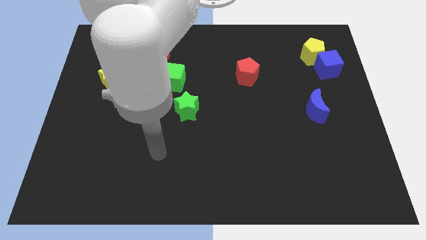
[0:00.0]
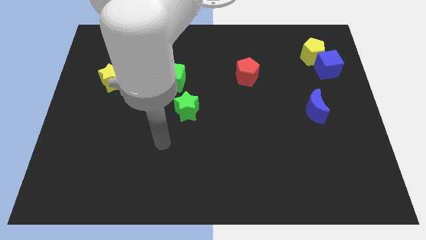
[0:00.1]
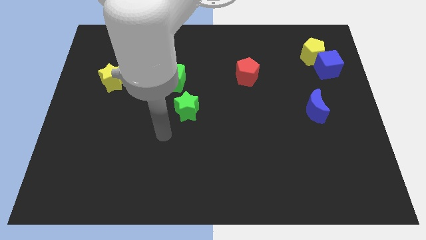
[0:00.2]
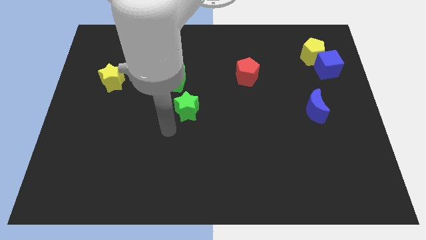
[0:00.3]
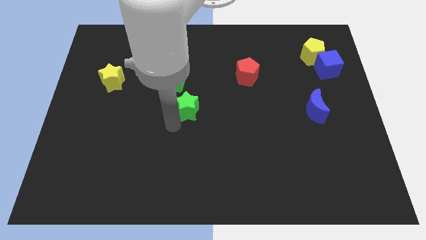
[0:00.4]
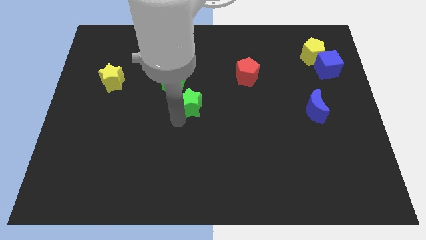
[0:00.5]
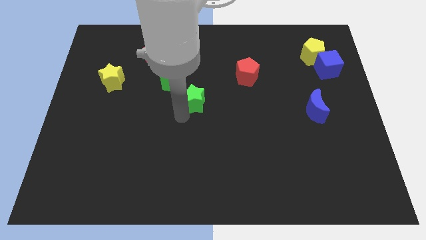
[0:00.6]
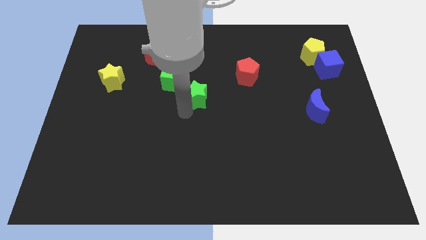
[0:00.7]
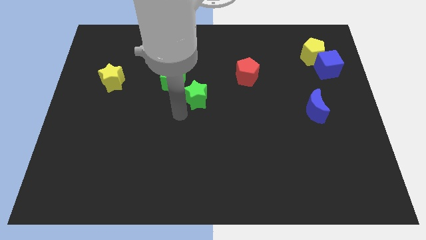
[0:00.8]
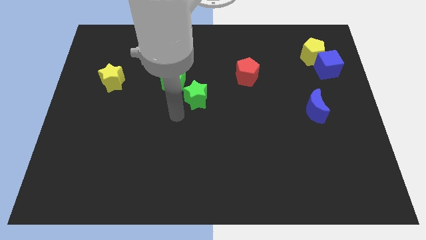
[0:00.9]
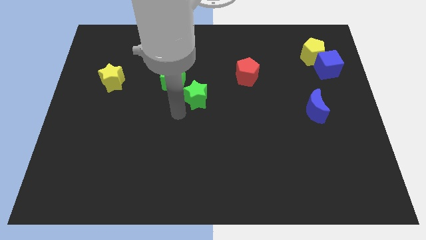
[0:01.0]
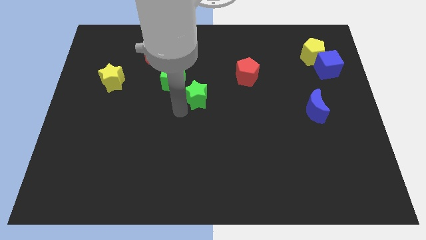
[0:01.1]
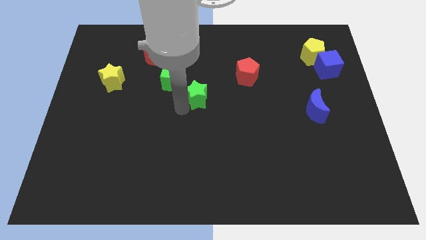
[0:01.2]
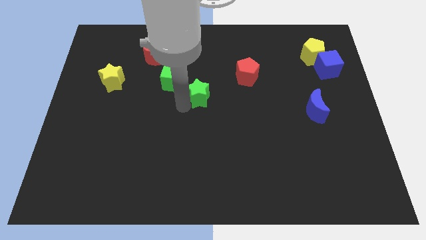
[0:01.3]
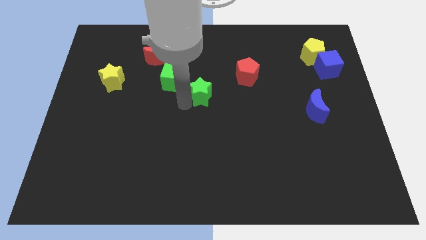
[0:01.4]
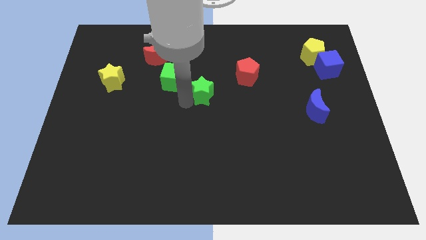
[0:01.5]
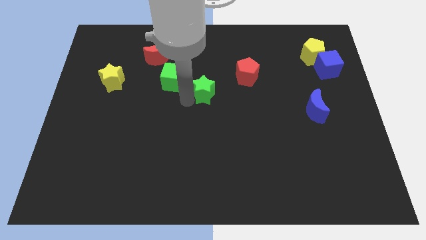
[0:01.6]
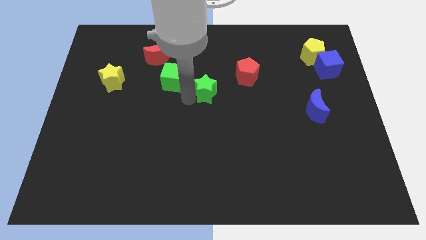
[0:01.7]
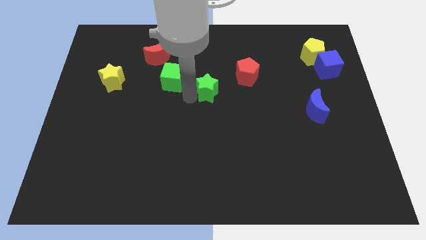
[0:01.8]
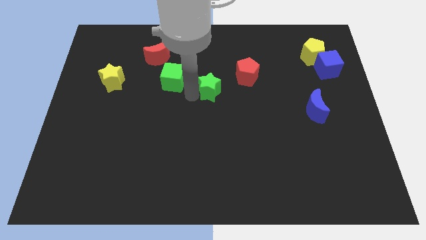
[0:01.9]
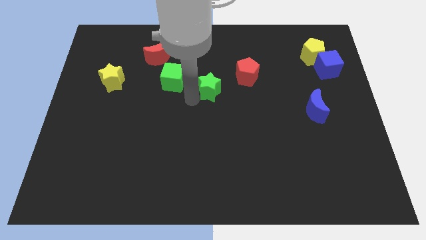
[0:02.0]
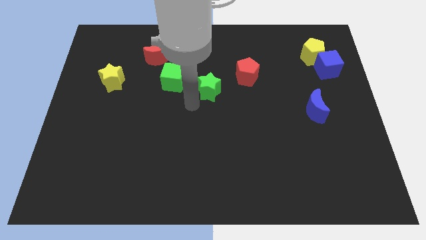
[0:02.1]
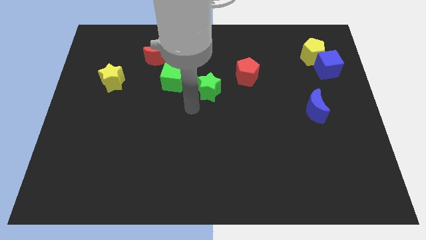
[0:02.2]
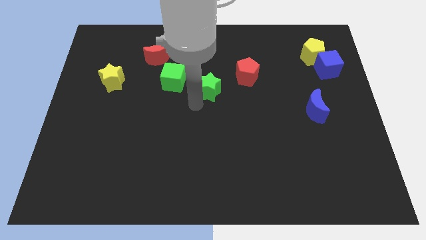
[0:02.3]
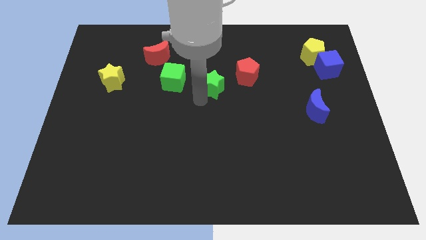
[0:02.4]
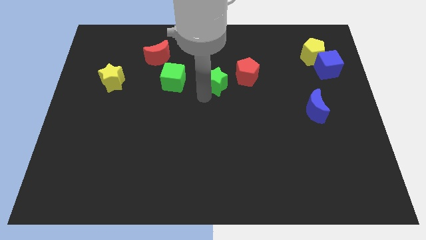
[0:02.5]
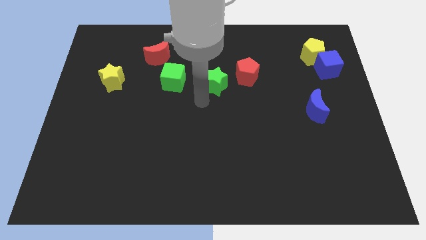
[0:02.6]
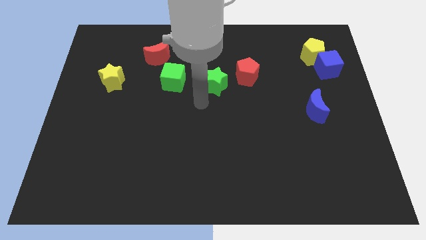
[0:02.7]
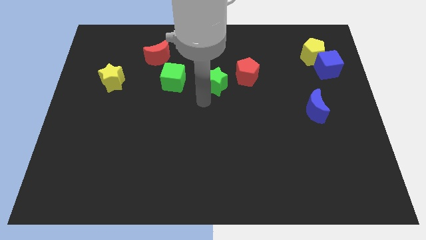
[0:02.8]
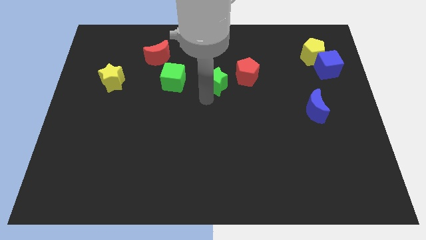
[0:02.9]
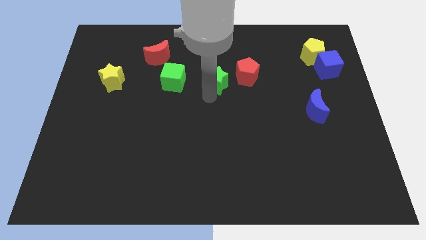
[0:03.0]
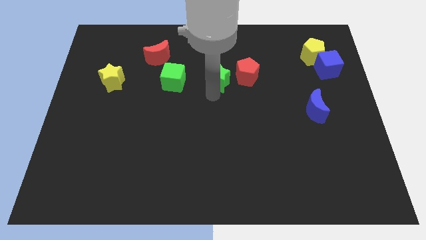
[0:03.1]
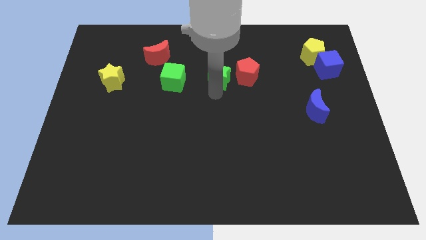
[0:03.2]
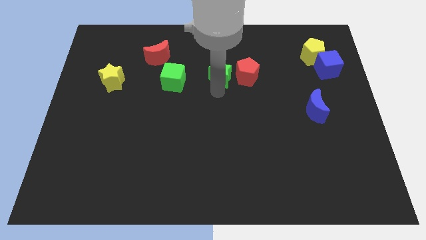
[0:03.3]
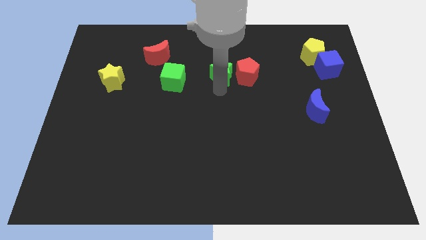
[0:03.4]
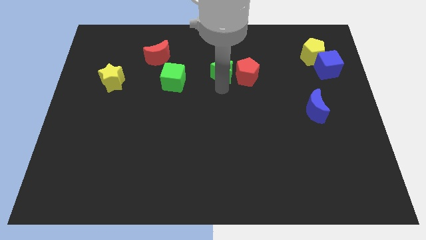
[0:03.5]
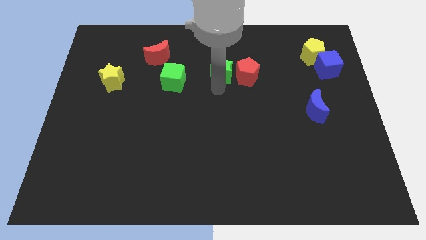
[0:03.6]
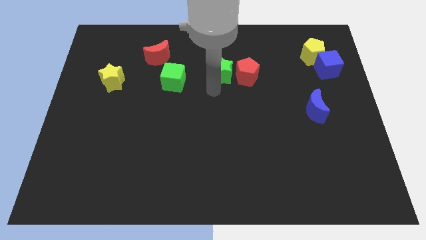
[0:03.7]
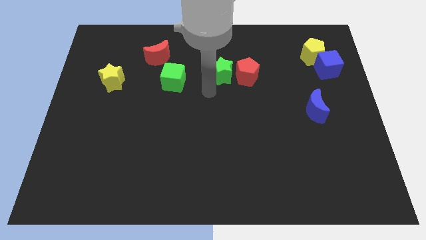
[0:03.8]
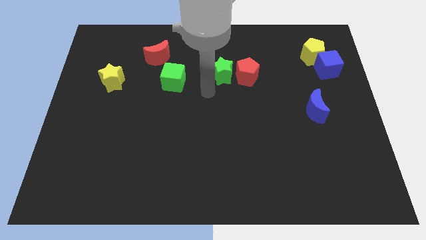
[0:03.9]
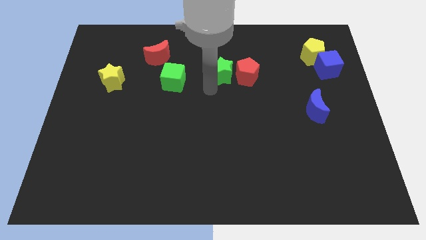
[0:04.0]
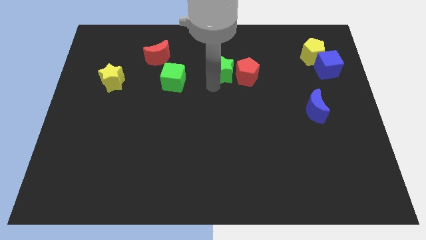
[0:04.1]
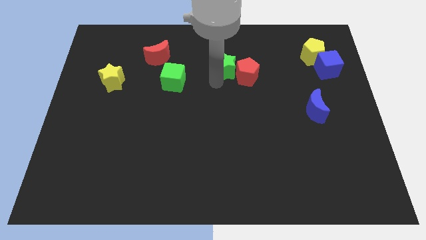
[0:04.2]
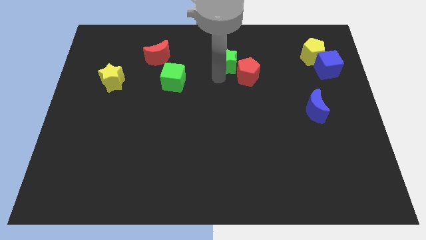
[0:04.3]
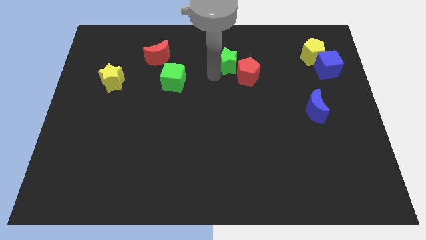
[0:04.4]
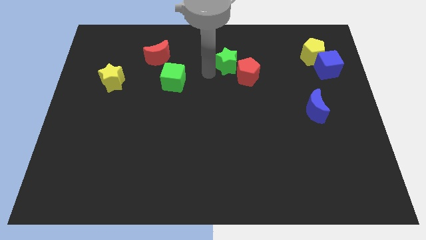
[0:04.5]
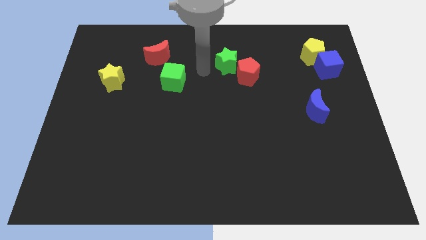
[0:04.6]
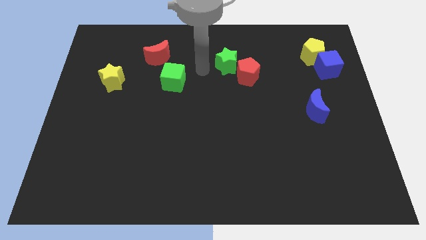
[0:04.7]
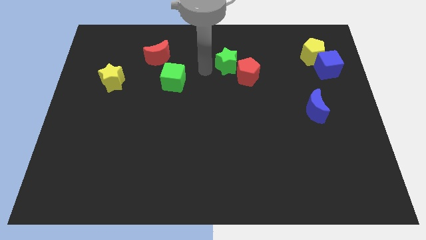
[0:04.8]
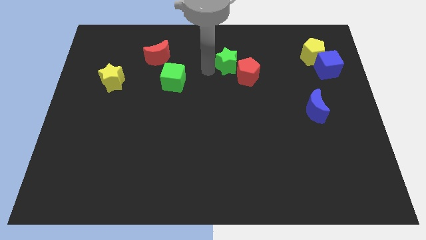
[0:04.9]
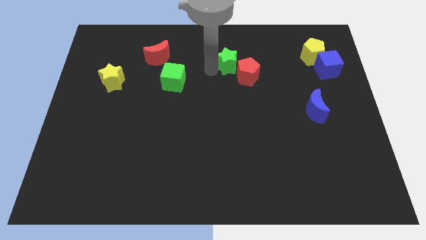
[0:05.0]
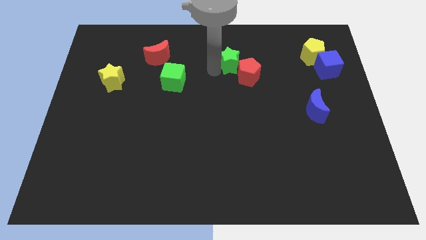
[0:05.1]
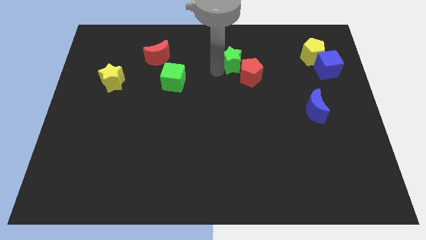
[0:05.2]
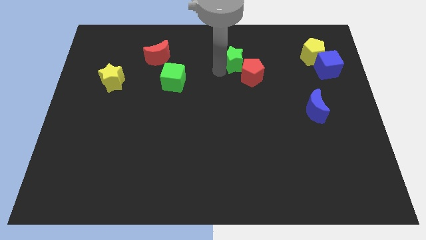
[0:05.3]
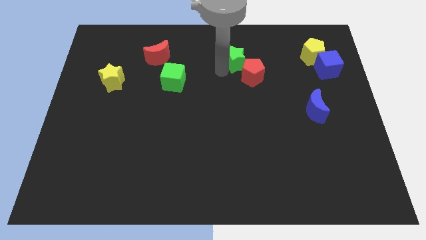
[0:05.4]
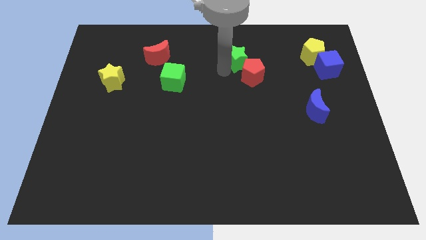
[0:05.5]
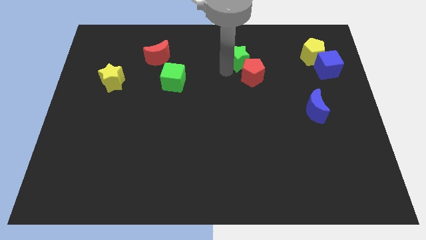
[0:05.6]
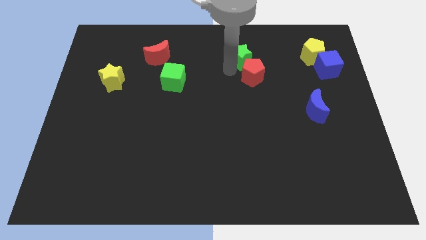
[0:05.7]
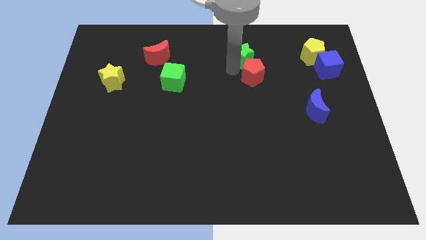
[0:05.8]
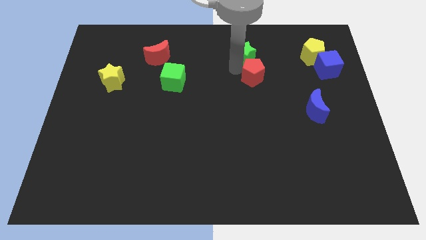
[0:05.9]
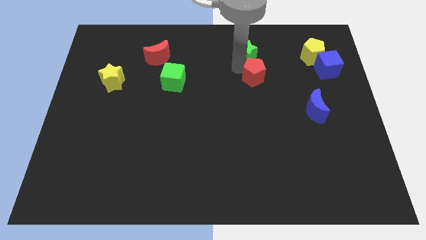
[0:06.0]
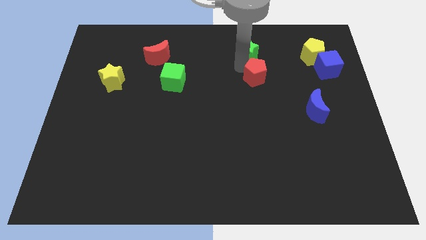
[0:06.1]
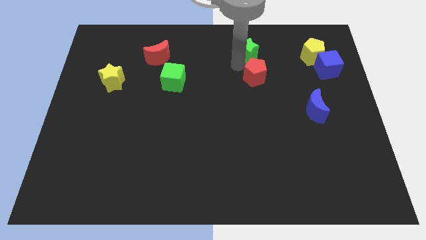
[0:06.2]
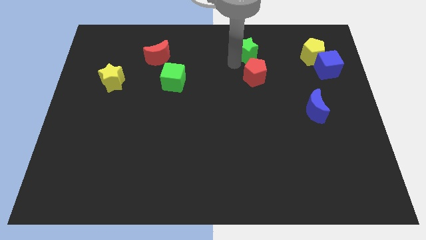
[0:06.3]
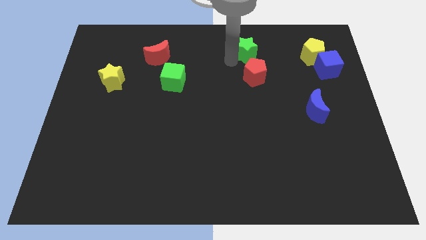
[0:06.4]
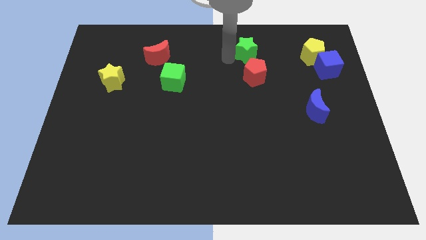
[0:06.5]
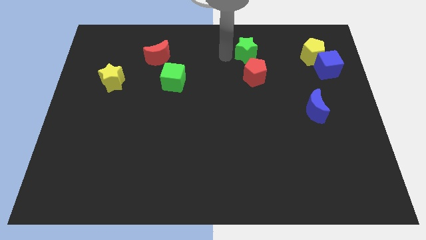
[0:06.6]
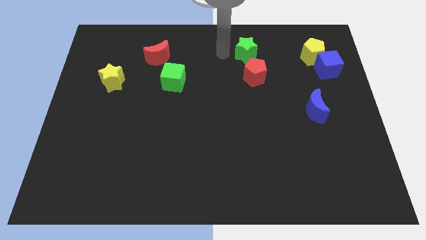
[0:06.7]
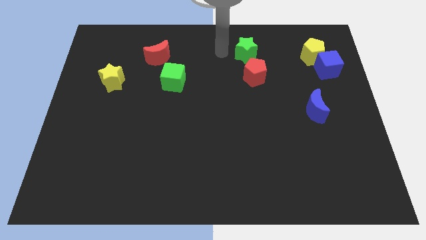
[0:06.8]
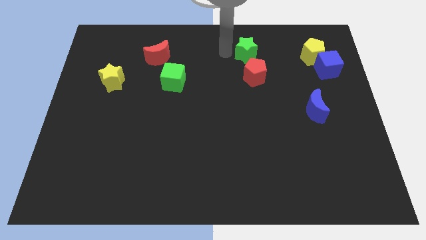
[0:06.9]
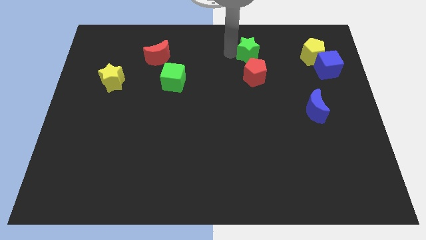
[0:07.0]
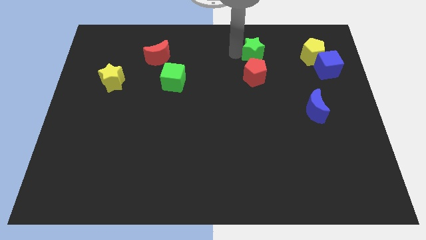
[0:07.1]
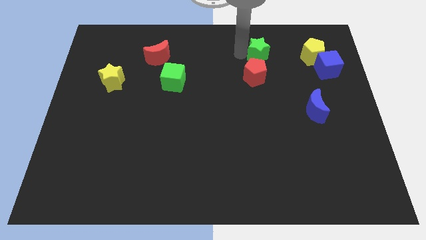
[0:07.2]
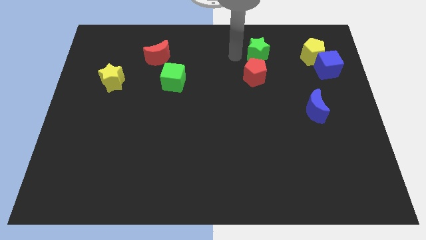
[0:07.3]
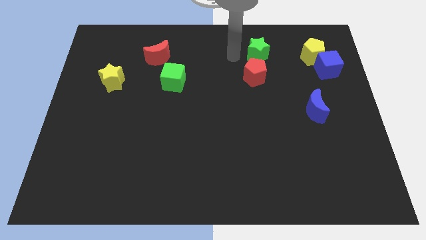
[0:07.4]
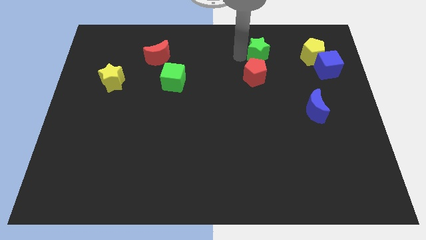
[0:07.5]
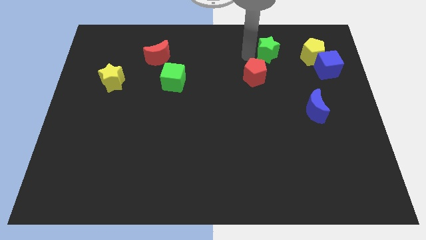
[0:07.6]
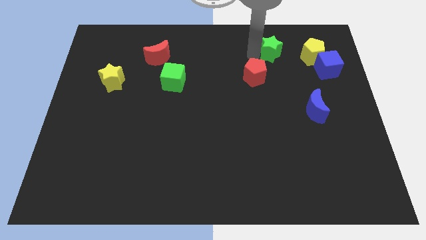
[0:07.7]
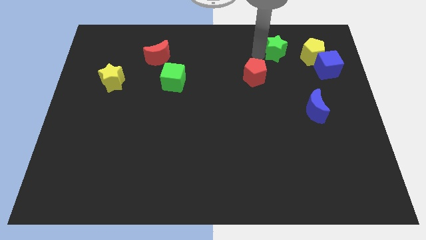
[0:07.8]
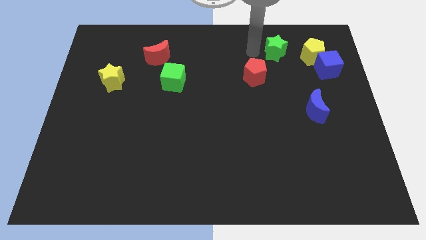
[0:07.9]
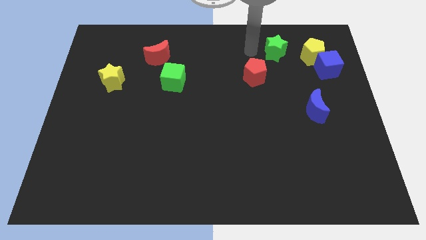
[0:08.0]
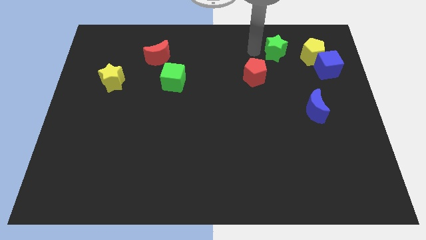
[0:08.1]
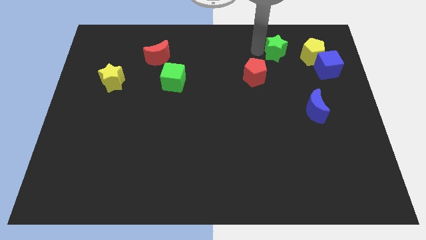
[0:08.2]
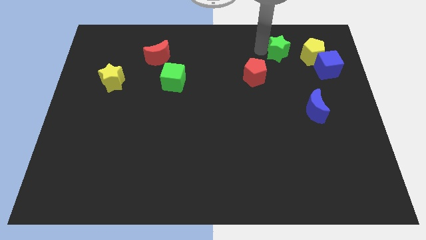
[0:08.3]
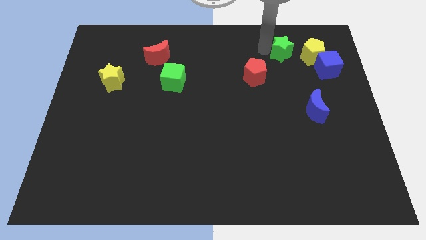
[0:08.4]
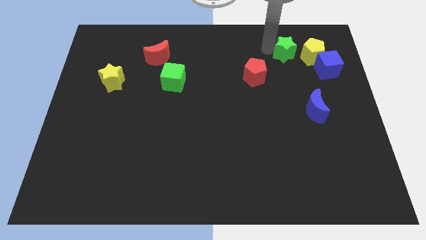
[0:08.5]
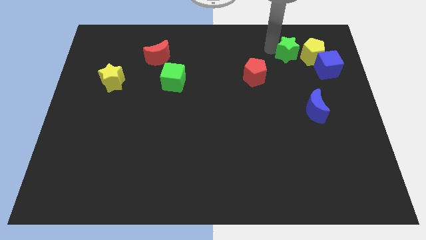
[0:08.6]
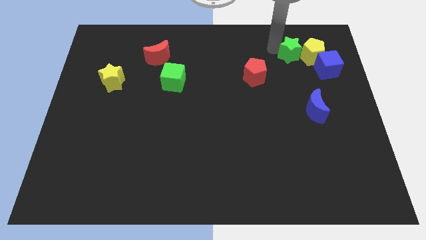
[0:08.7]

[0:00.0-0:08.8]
put the green star next to the yellow pentagon
